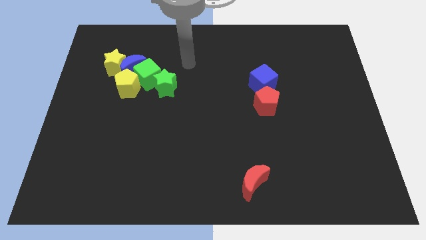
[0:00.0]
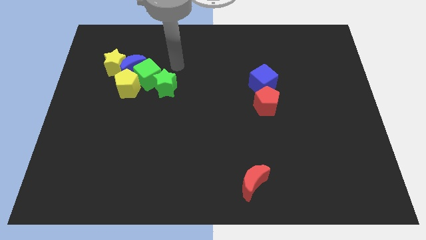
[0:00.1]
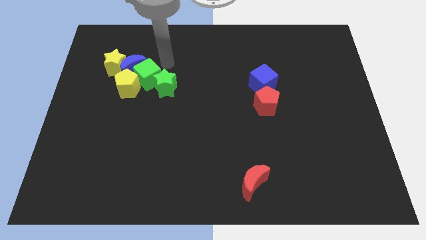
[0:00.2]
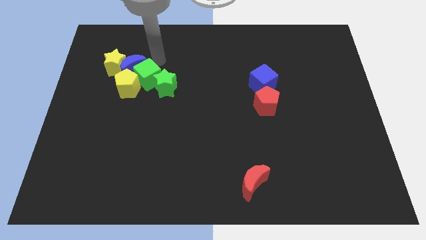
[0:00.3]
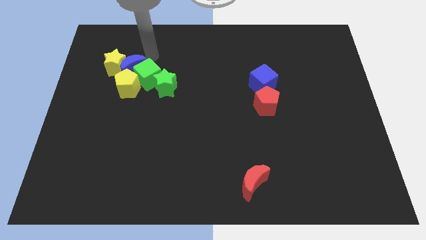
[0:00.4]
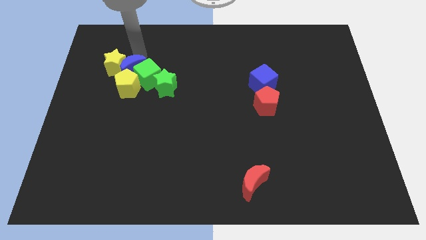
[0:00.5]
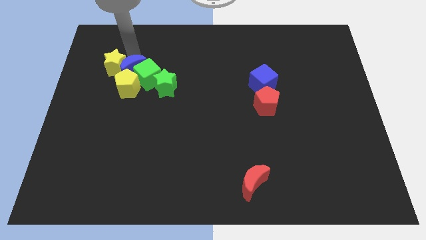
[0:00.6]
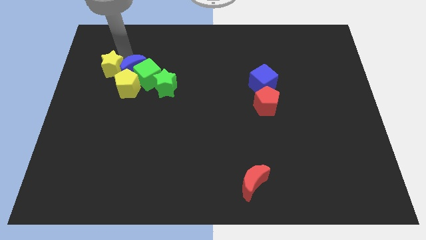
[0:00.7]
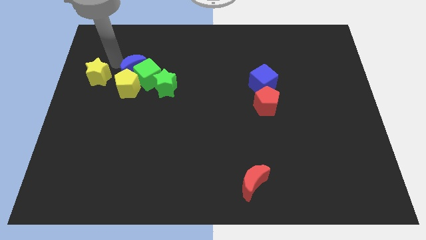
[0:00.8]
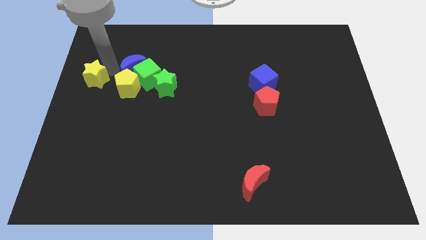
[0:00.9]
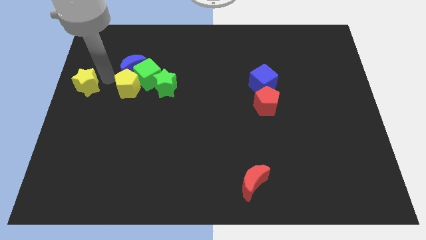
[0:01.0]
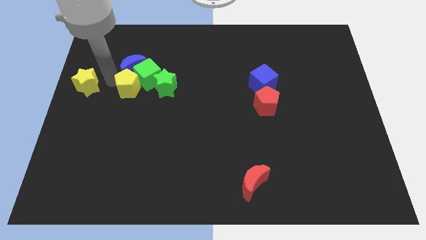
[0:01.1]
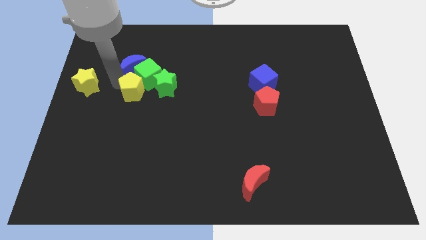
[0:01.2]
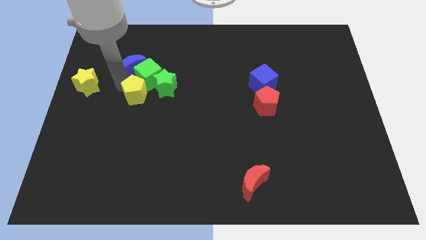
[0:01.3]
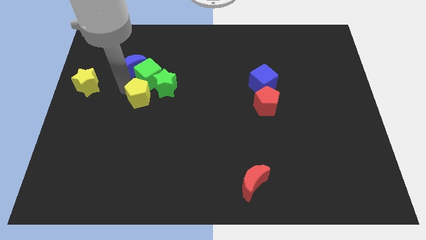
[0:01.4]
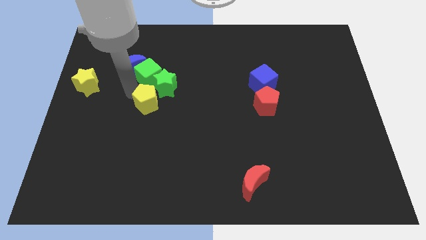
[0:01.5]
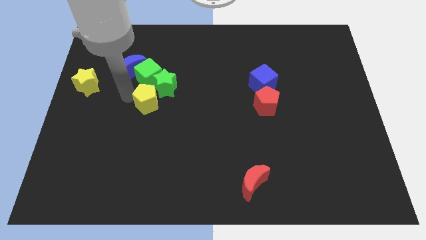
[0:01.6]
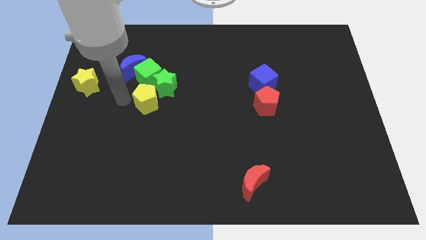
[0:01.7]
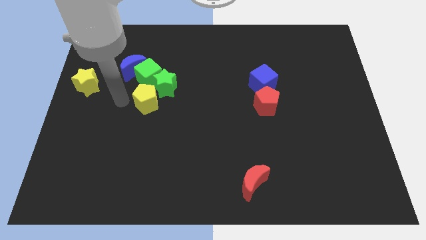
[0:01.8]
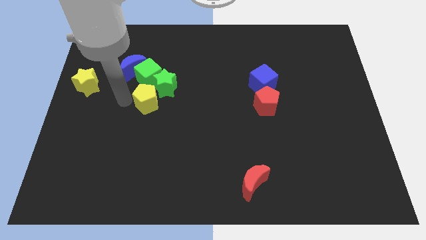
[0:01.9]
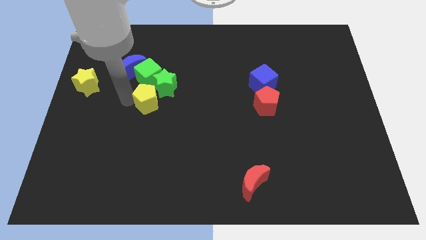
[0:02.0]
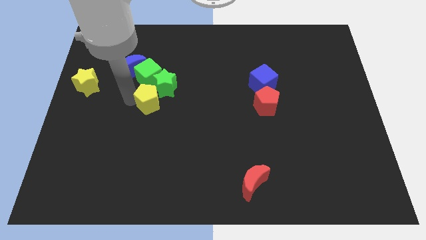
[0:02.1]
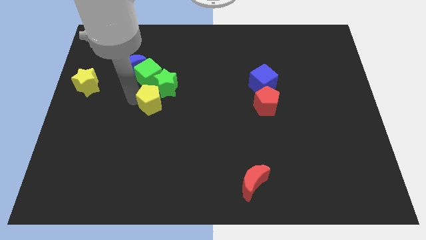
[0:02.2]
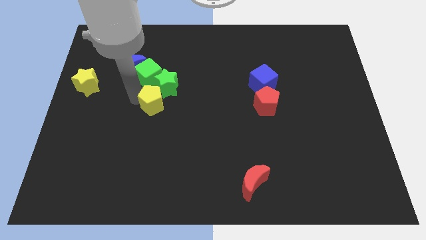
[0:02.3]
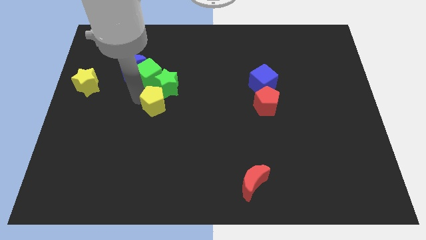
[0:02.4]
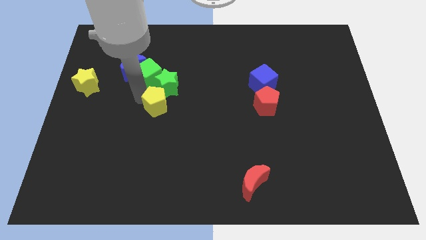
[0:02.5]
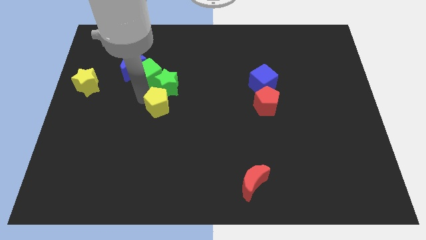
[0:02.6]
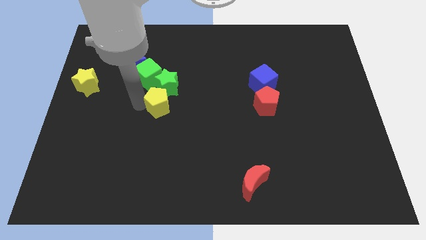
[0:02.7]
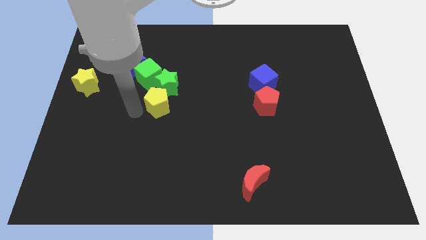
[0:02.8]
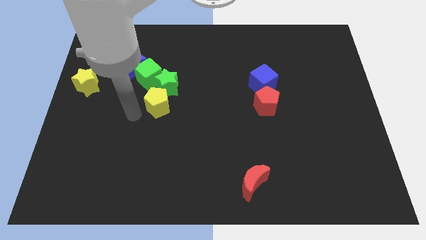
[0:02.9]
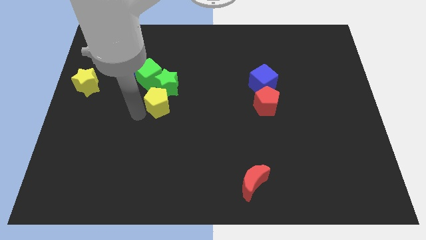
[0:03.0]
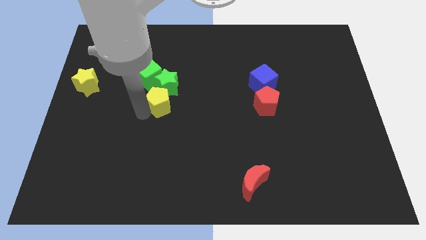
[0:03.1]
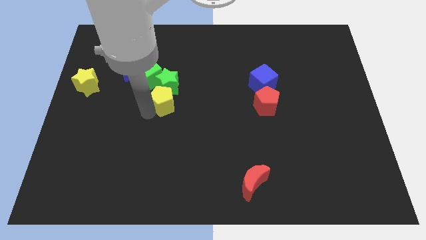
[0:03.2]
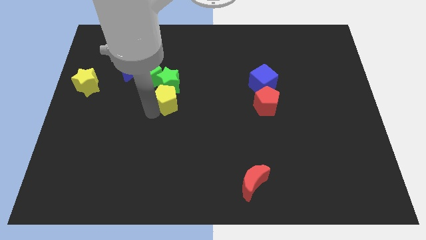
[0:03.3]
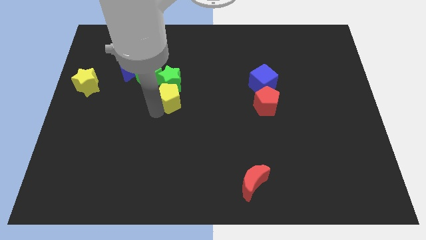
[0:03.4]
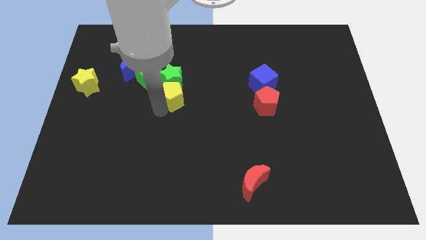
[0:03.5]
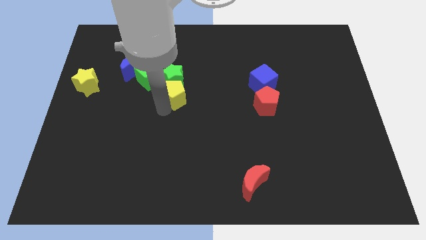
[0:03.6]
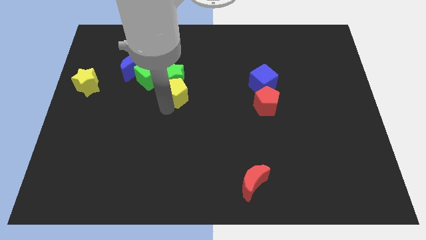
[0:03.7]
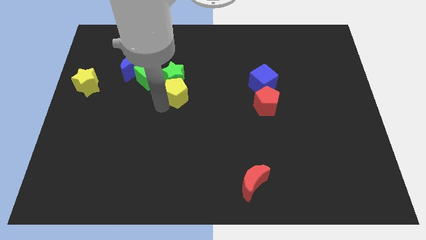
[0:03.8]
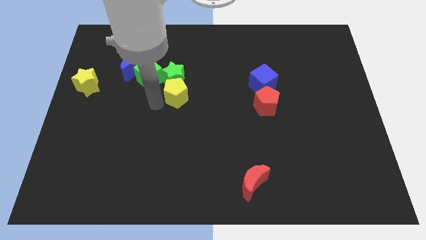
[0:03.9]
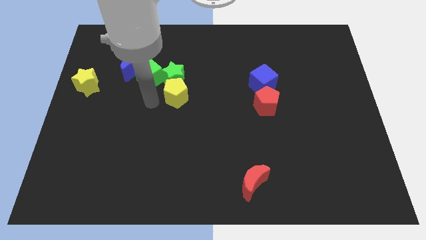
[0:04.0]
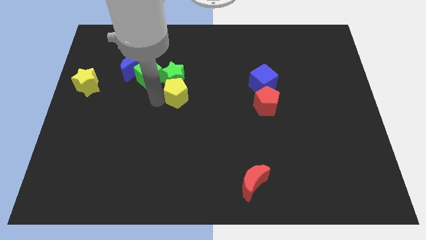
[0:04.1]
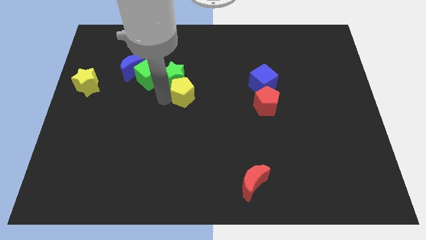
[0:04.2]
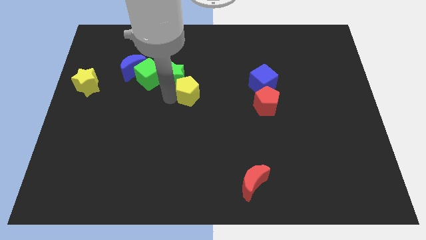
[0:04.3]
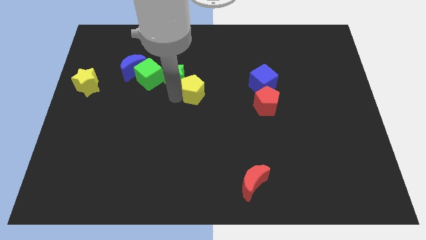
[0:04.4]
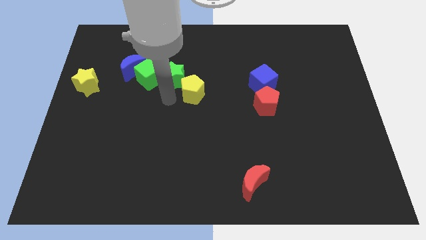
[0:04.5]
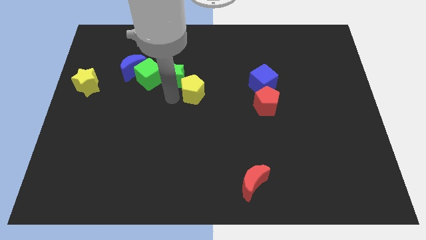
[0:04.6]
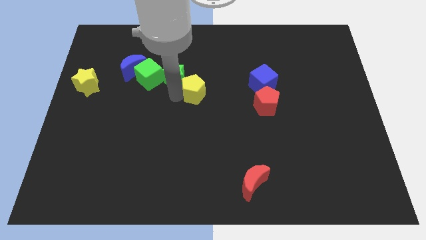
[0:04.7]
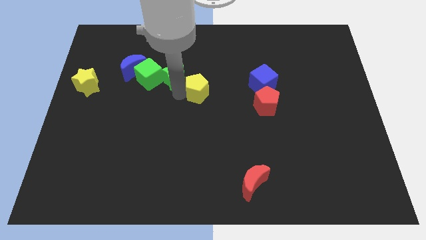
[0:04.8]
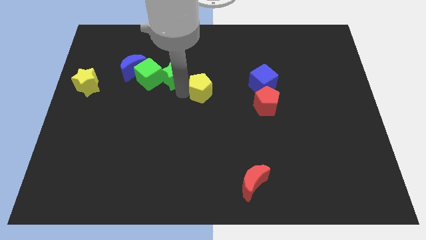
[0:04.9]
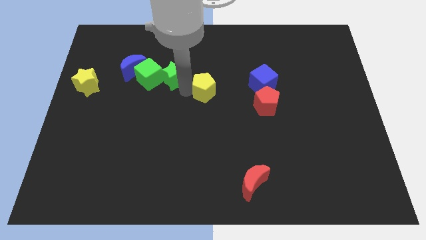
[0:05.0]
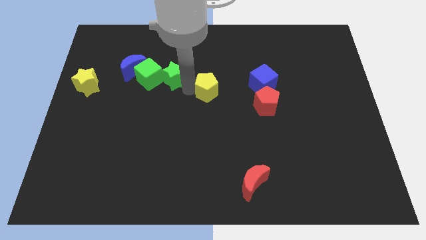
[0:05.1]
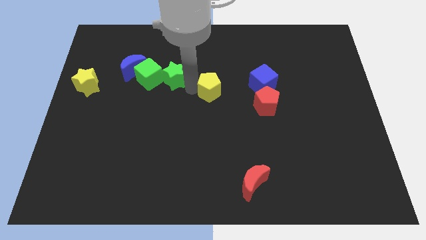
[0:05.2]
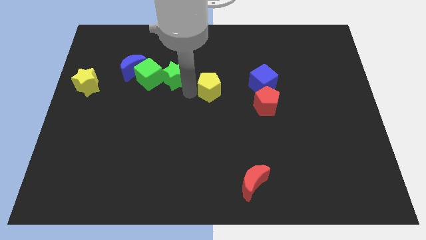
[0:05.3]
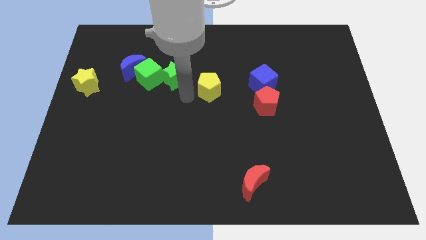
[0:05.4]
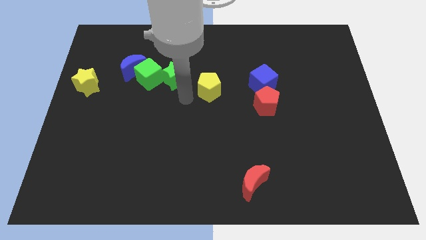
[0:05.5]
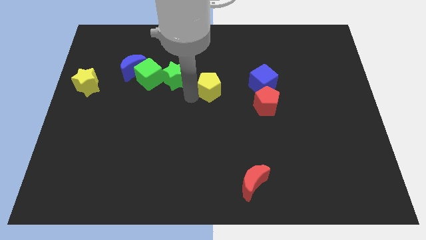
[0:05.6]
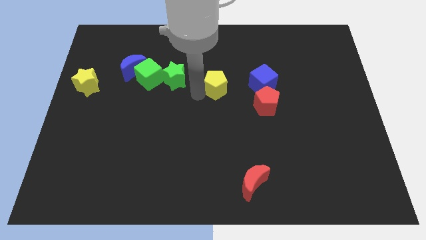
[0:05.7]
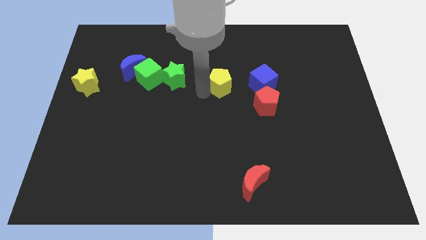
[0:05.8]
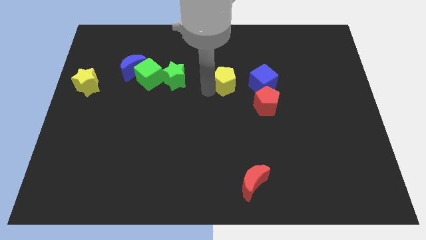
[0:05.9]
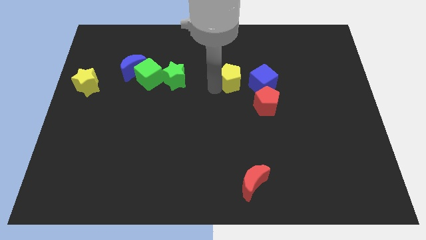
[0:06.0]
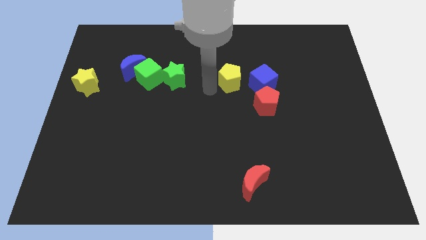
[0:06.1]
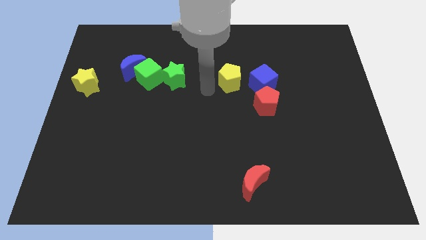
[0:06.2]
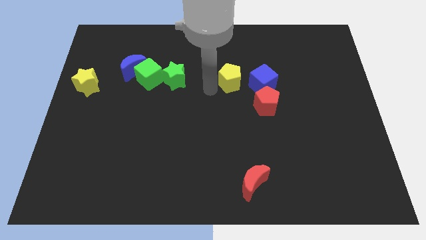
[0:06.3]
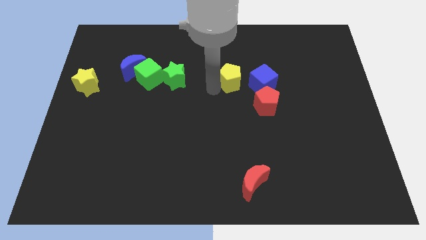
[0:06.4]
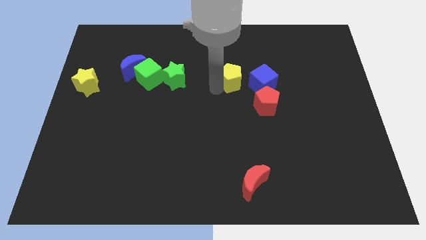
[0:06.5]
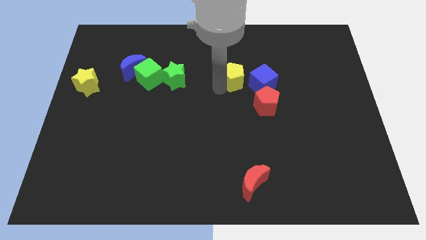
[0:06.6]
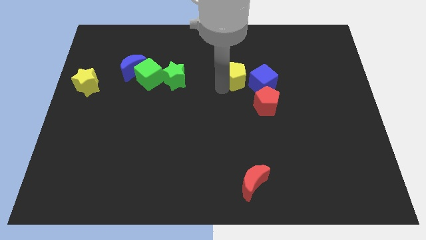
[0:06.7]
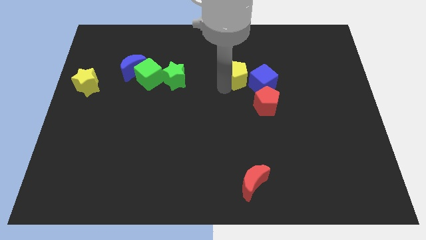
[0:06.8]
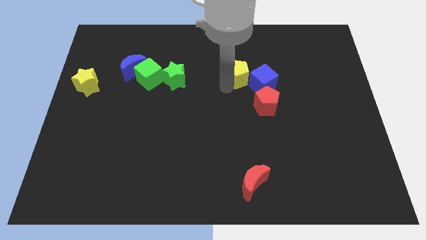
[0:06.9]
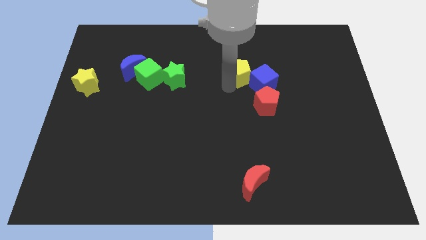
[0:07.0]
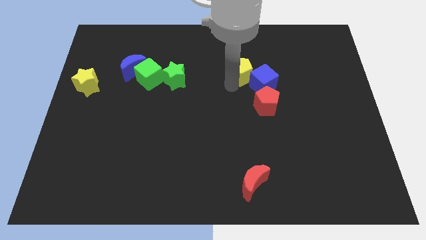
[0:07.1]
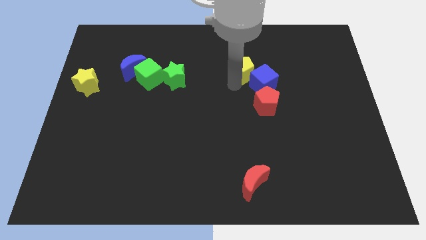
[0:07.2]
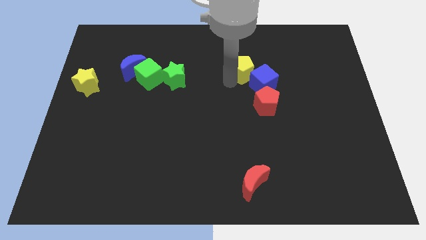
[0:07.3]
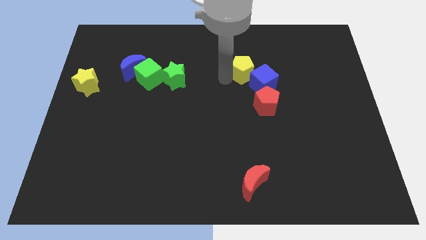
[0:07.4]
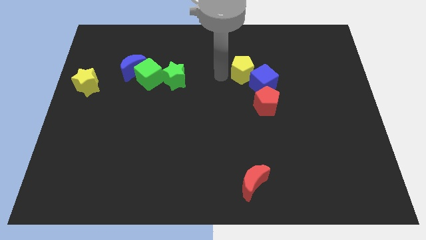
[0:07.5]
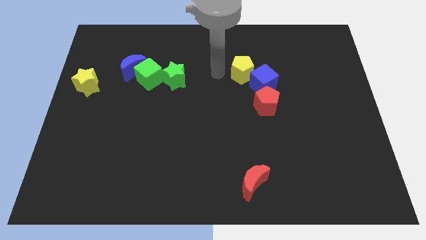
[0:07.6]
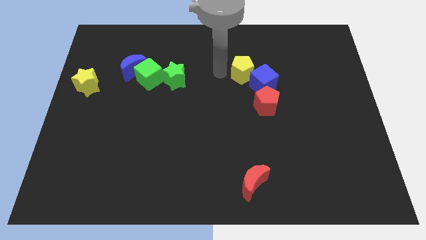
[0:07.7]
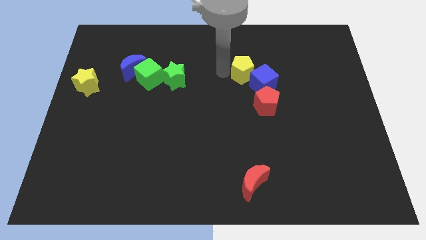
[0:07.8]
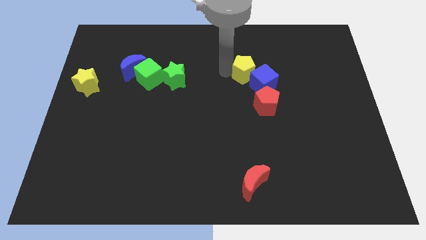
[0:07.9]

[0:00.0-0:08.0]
slide the yellow pentagon above the red pentagon
